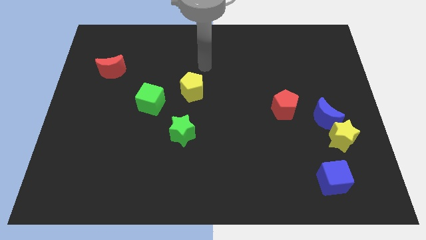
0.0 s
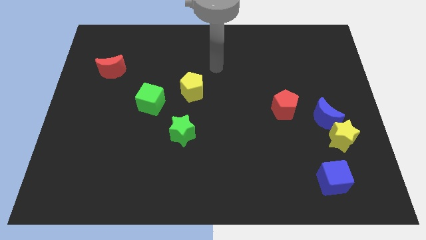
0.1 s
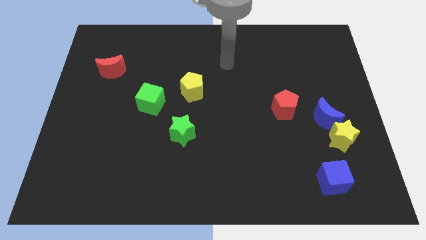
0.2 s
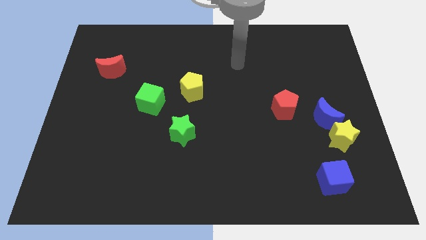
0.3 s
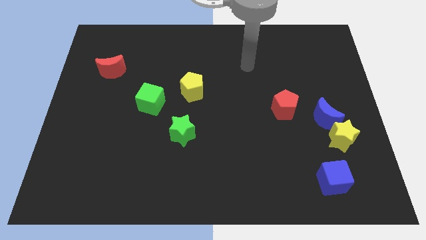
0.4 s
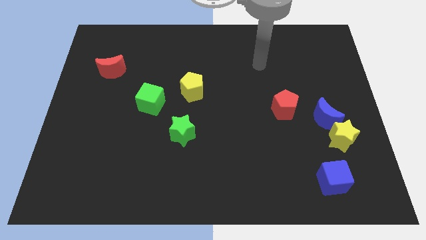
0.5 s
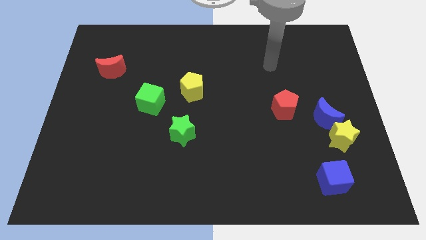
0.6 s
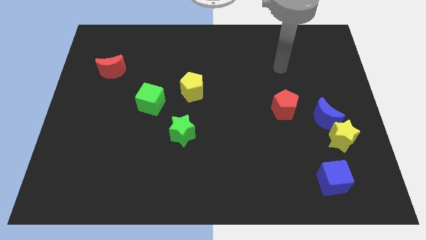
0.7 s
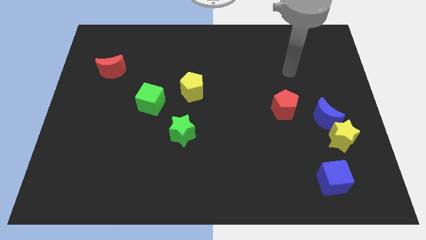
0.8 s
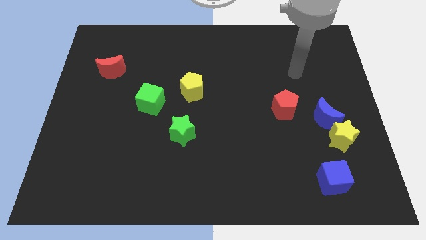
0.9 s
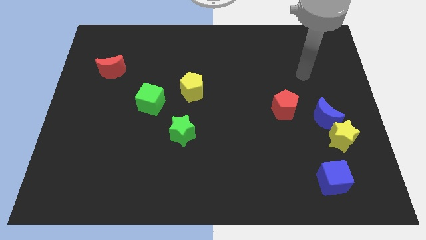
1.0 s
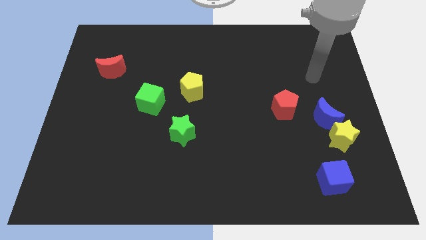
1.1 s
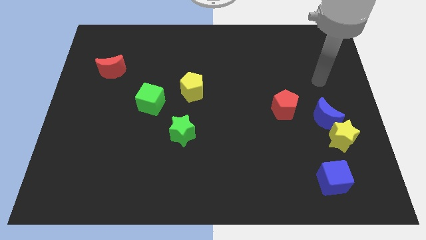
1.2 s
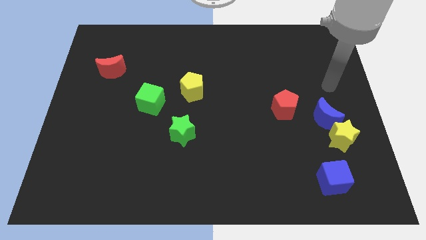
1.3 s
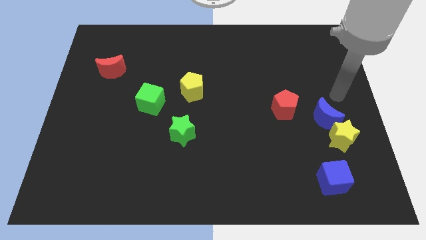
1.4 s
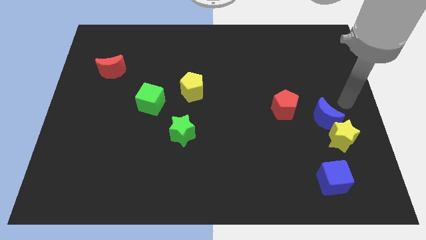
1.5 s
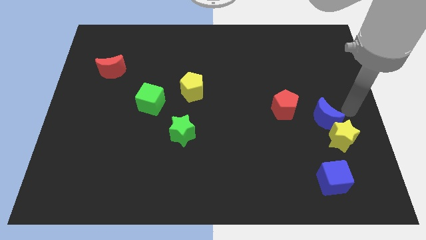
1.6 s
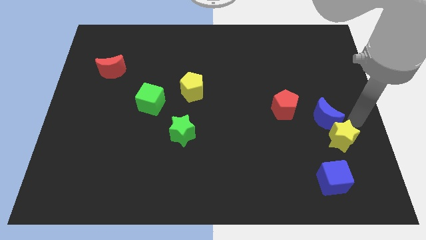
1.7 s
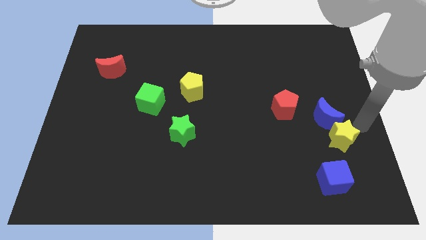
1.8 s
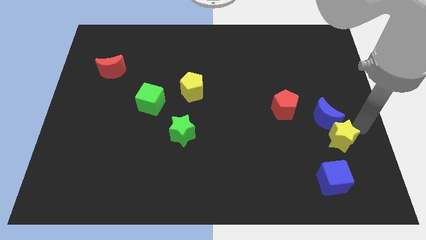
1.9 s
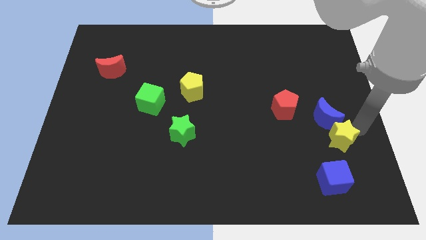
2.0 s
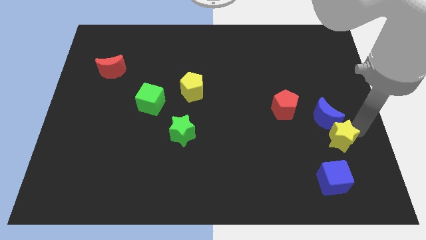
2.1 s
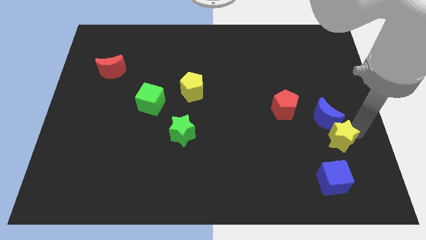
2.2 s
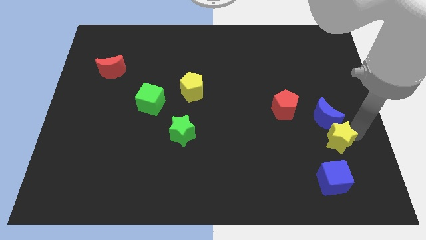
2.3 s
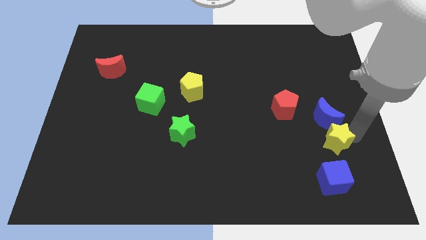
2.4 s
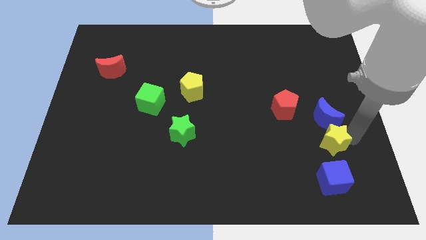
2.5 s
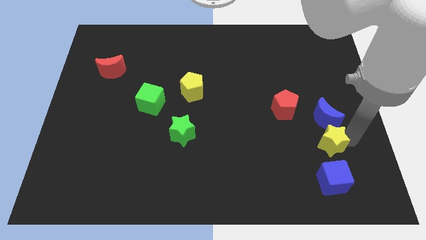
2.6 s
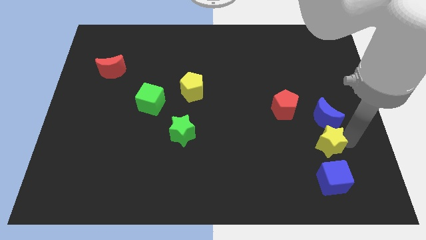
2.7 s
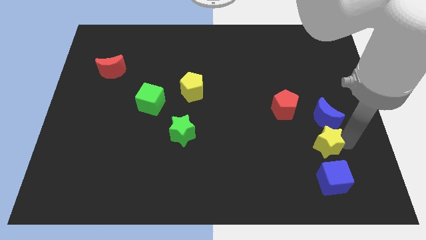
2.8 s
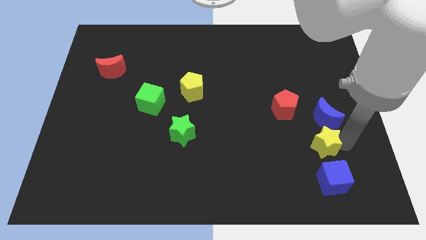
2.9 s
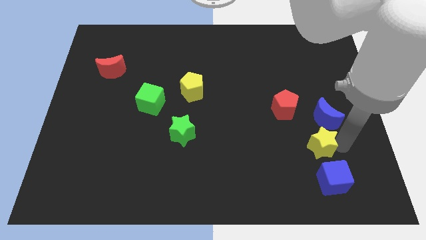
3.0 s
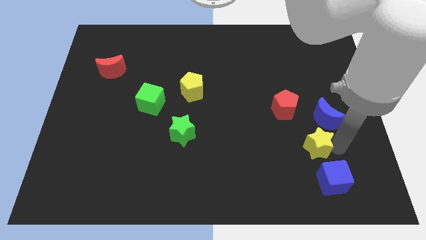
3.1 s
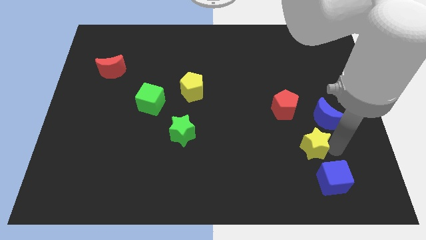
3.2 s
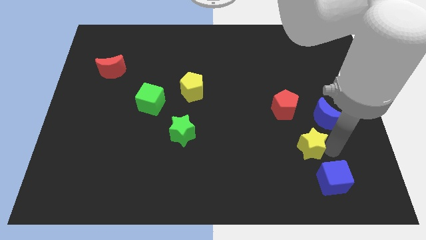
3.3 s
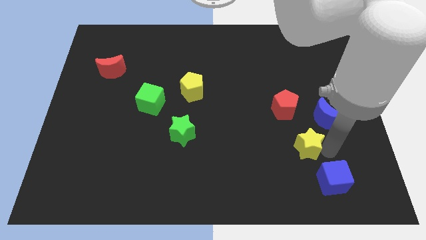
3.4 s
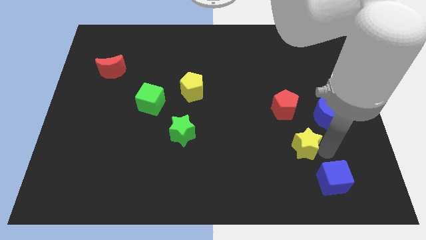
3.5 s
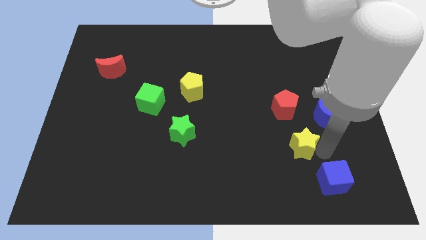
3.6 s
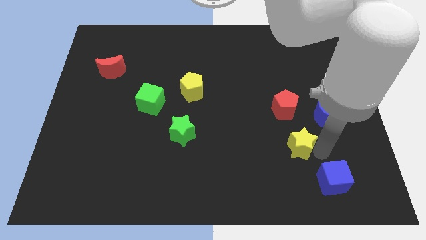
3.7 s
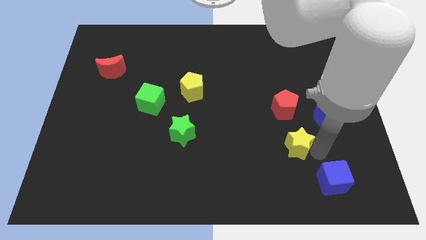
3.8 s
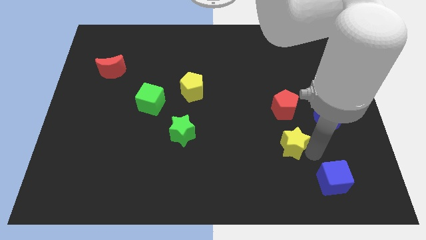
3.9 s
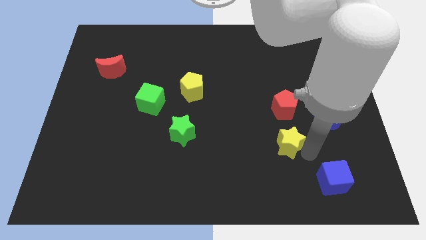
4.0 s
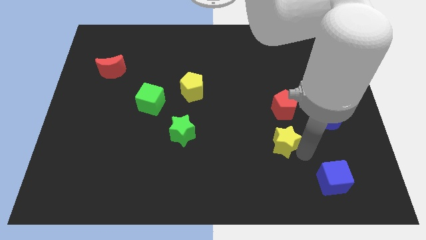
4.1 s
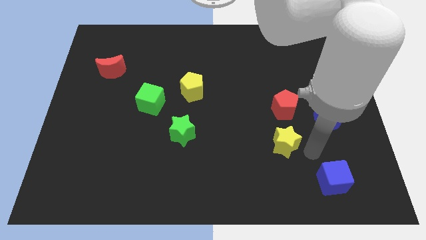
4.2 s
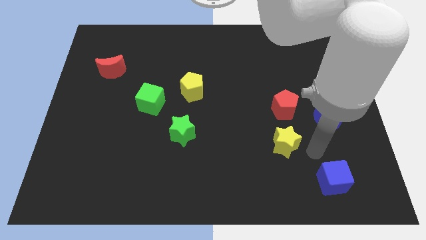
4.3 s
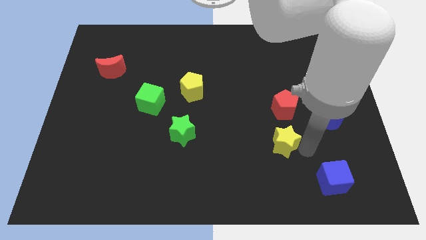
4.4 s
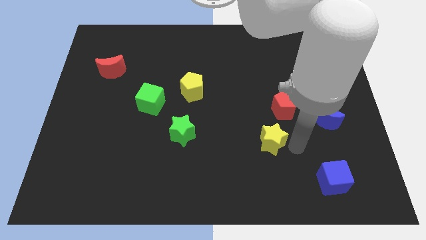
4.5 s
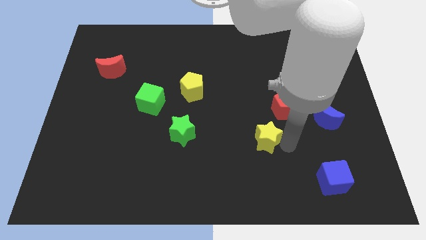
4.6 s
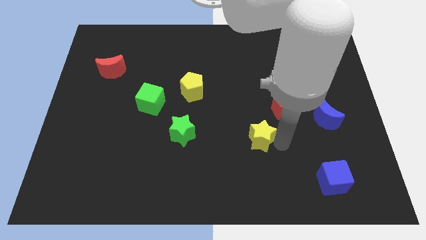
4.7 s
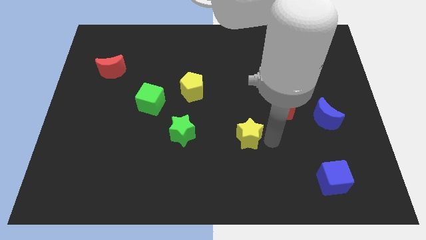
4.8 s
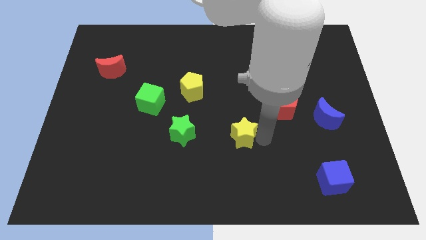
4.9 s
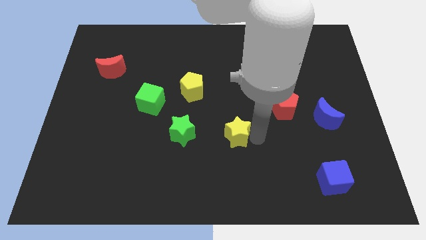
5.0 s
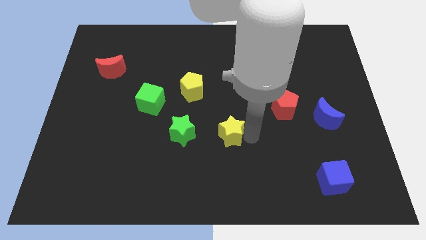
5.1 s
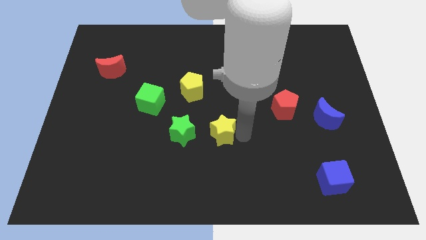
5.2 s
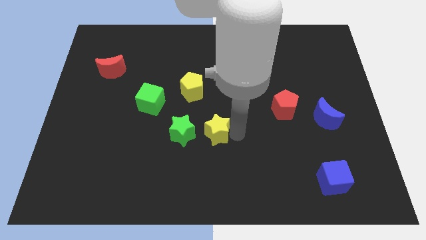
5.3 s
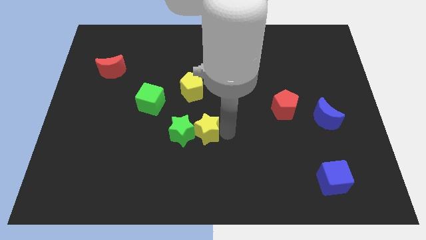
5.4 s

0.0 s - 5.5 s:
move the yellow star close to the green star

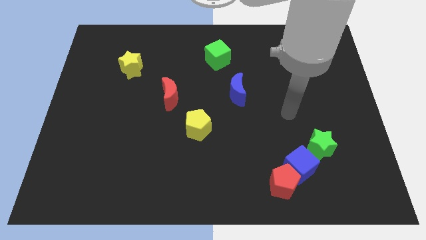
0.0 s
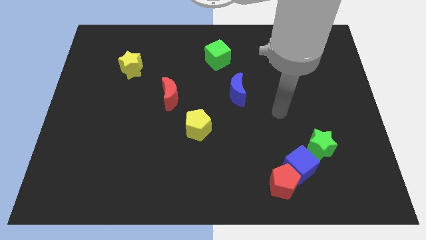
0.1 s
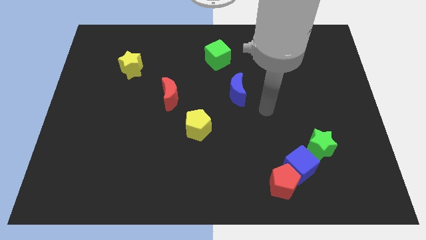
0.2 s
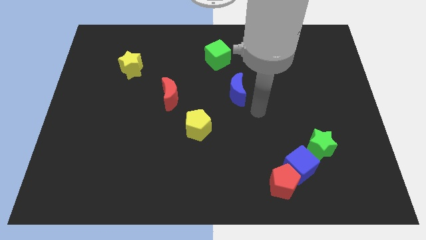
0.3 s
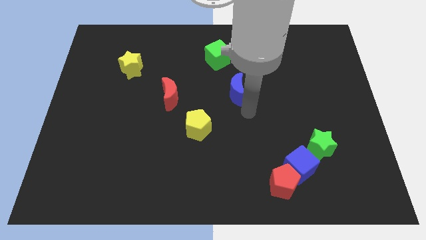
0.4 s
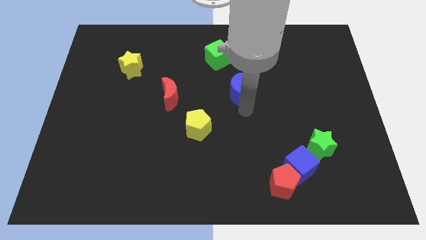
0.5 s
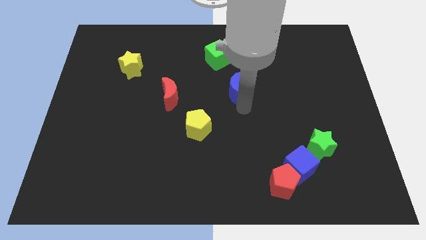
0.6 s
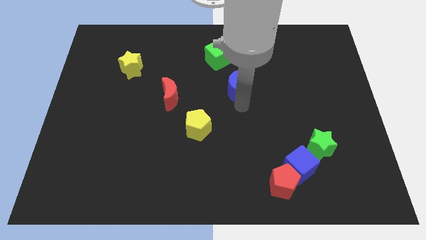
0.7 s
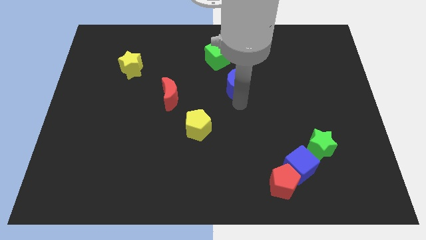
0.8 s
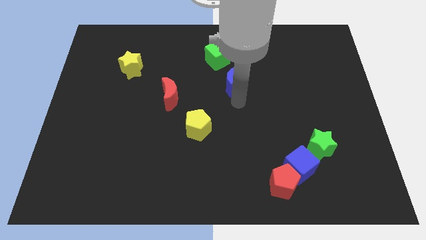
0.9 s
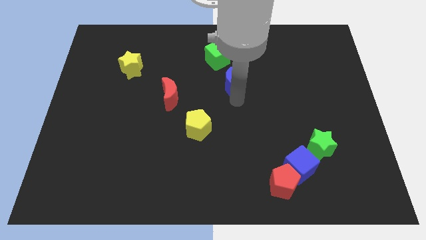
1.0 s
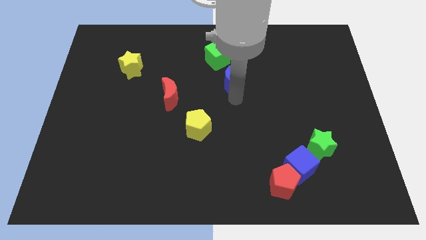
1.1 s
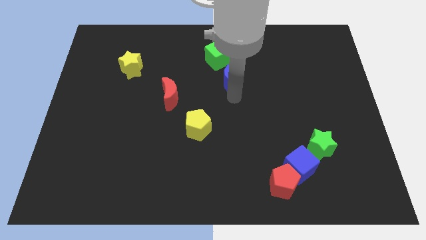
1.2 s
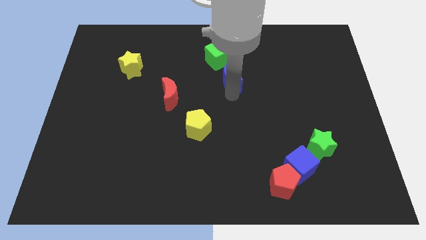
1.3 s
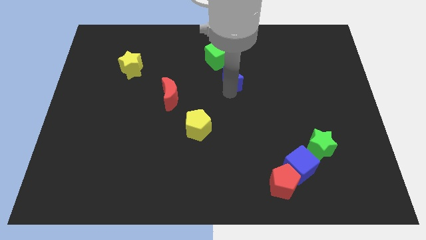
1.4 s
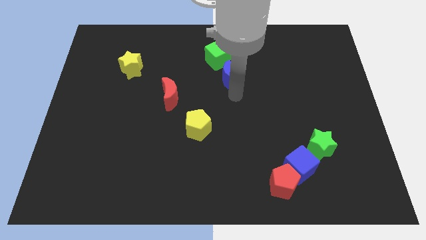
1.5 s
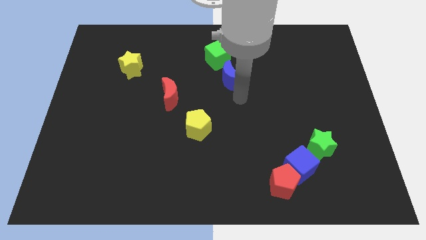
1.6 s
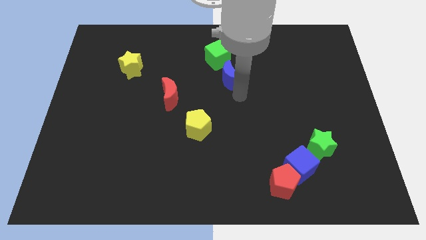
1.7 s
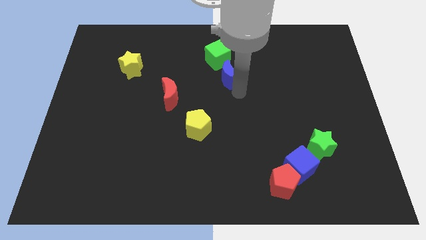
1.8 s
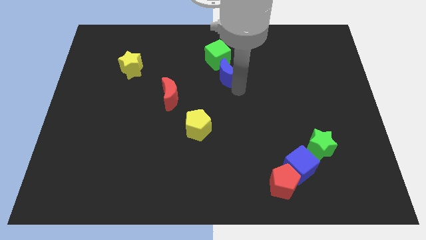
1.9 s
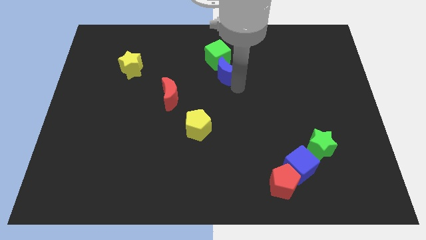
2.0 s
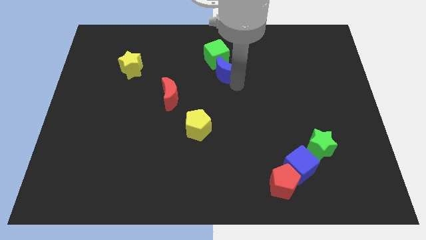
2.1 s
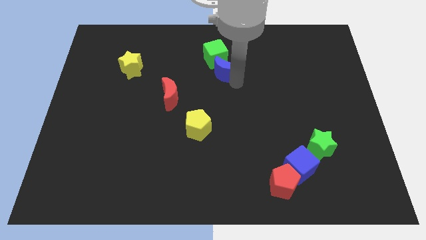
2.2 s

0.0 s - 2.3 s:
slide the blue moon to the green cube

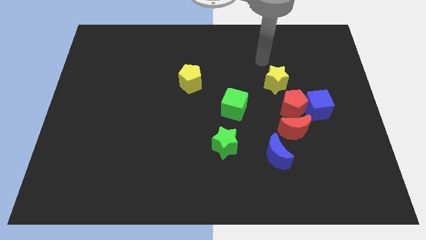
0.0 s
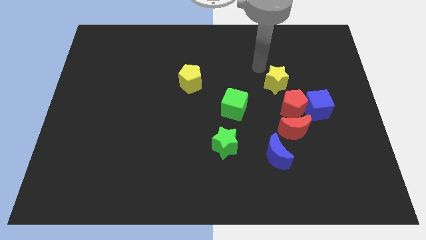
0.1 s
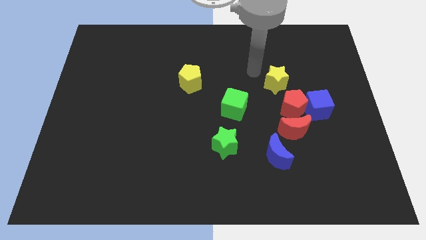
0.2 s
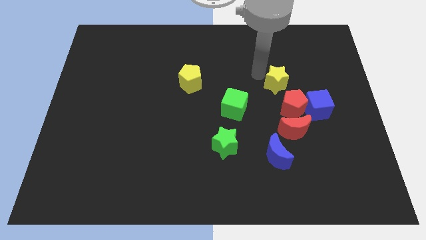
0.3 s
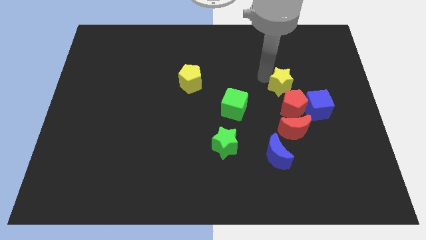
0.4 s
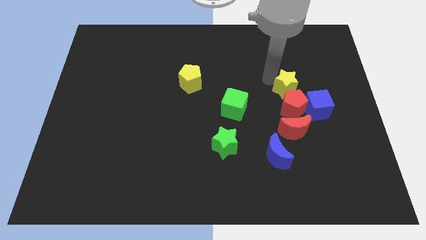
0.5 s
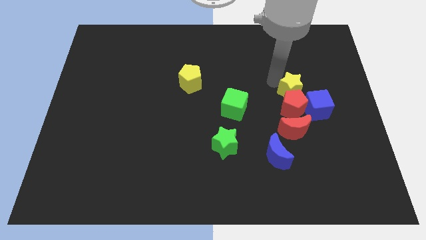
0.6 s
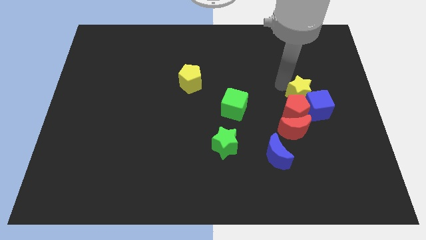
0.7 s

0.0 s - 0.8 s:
move the yellow star to the blue cube
